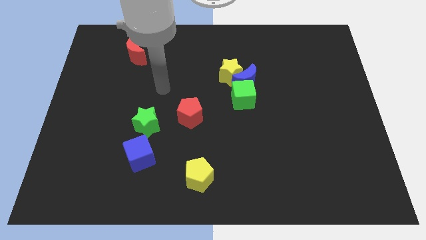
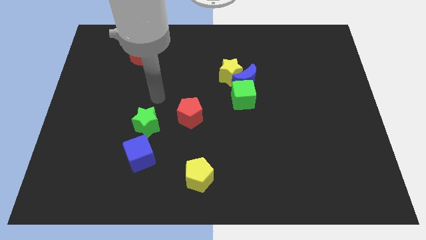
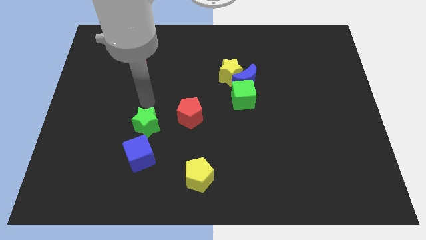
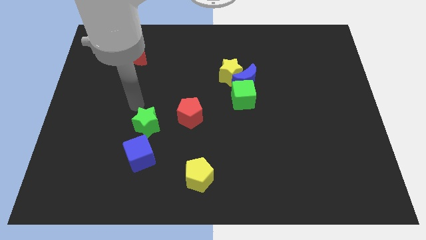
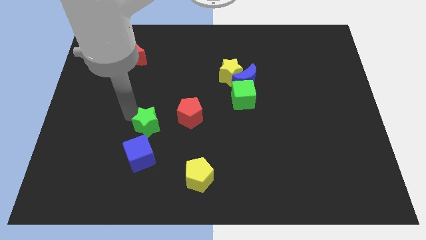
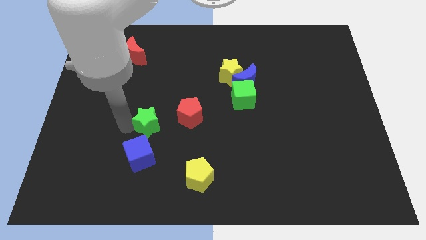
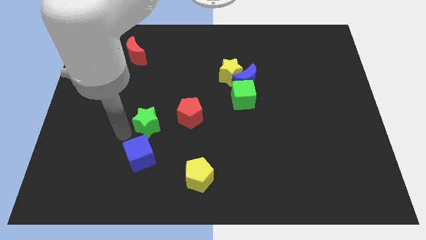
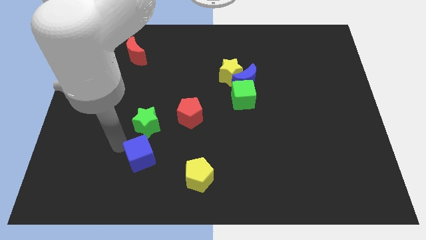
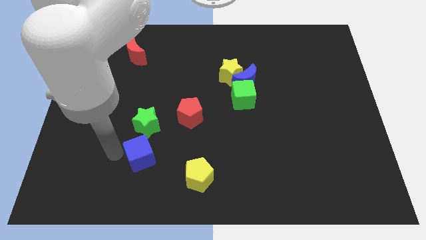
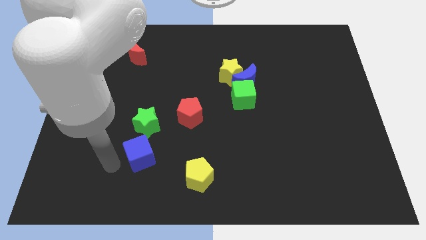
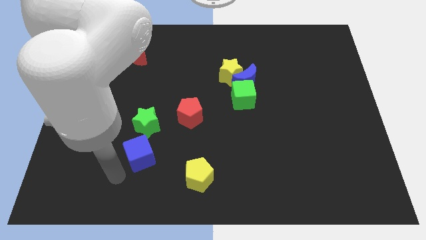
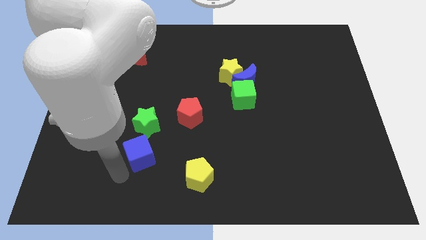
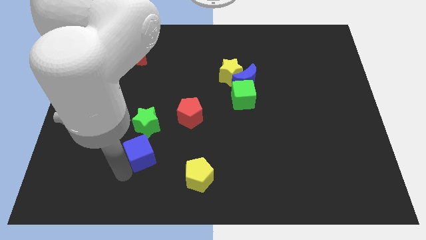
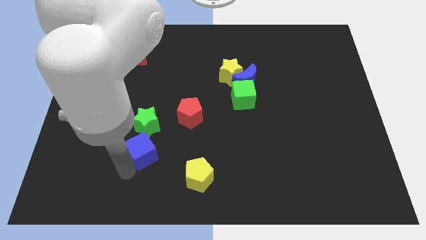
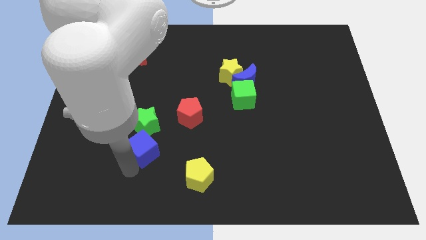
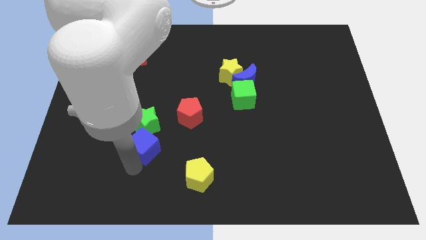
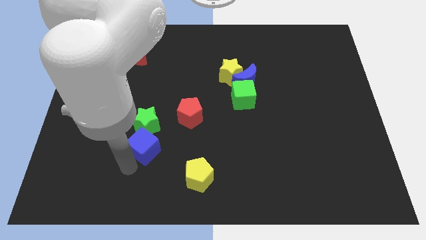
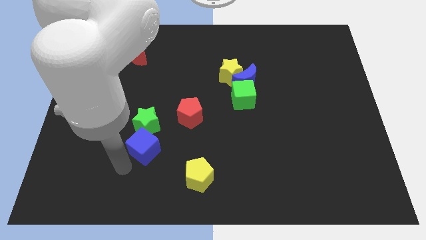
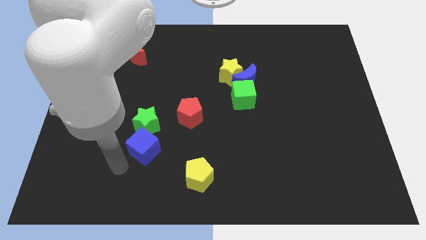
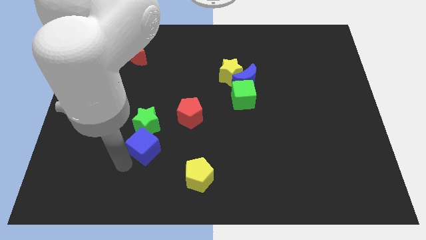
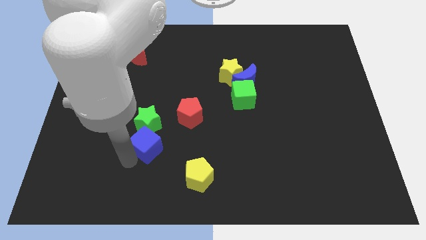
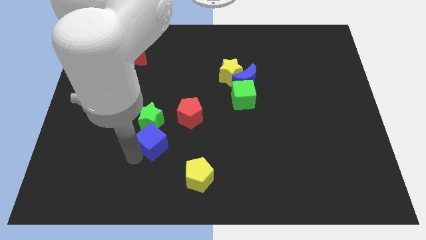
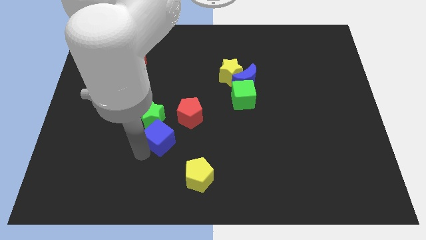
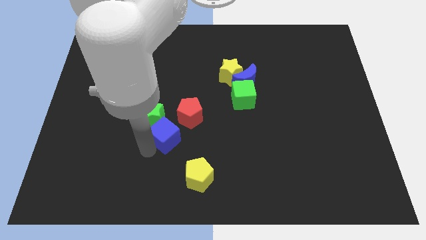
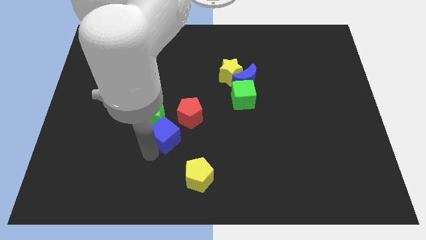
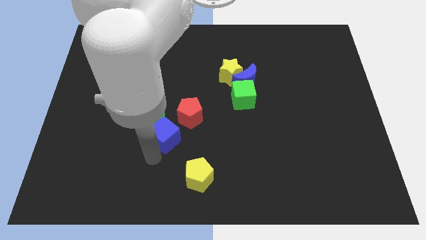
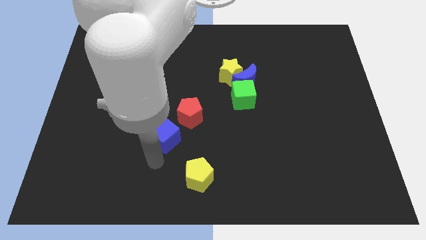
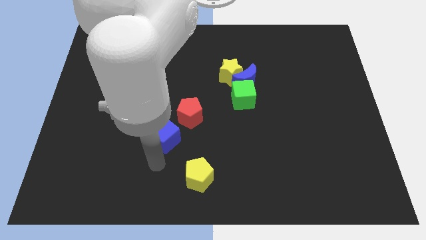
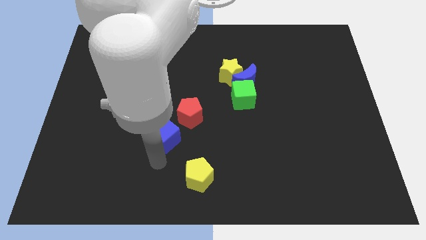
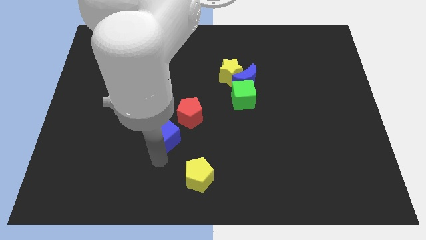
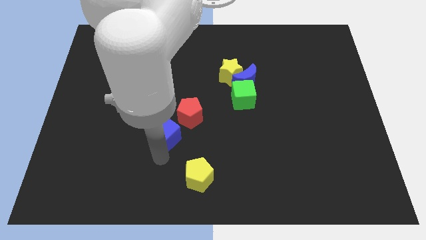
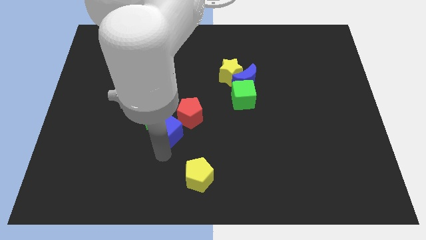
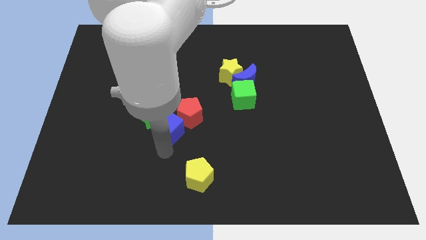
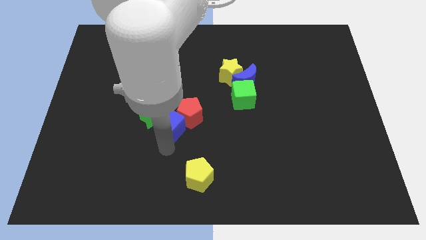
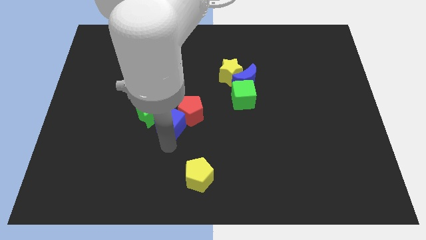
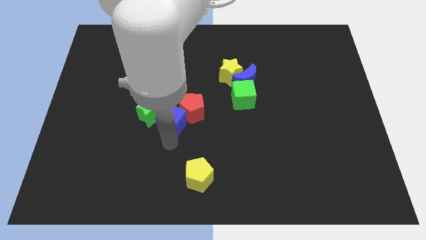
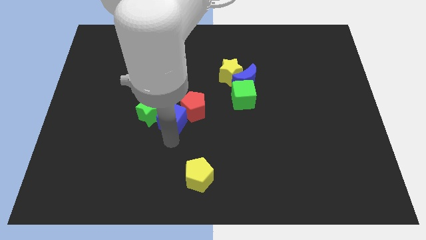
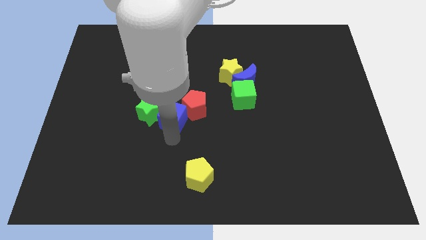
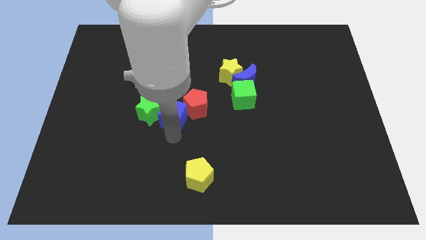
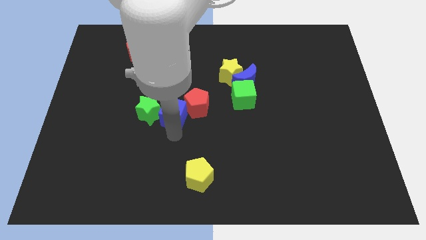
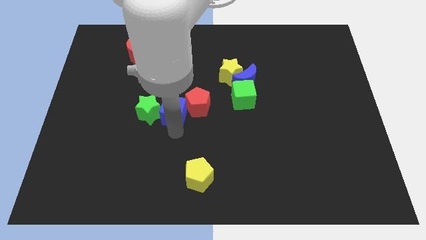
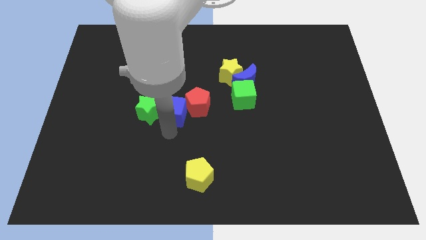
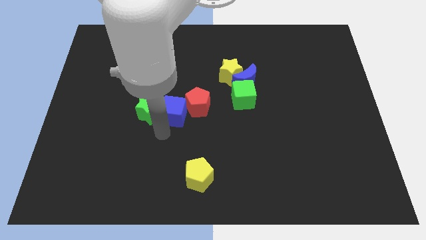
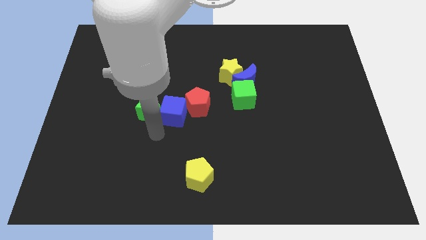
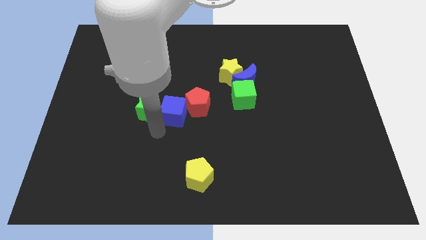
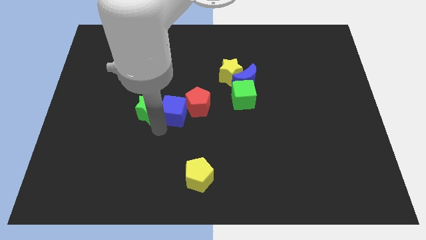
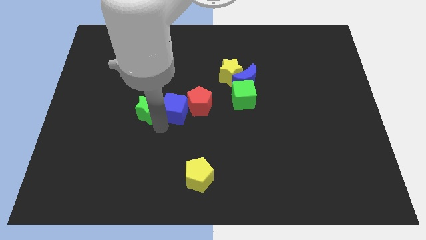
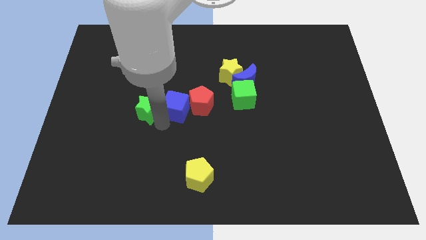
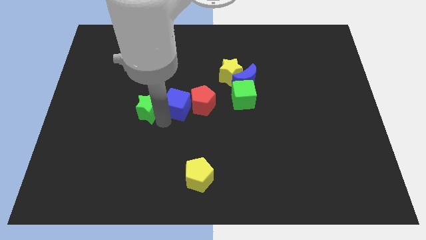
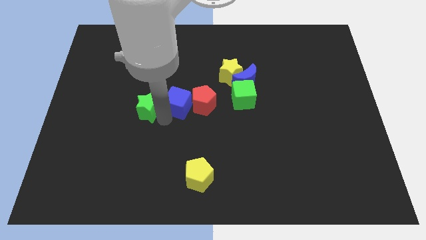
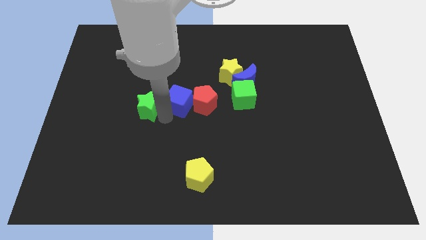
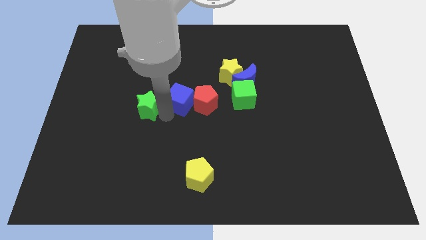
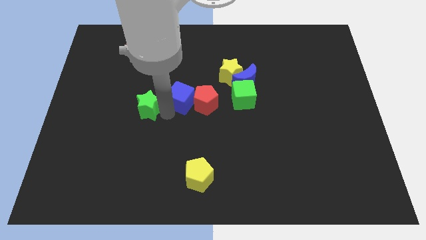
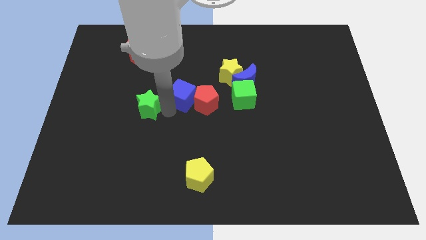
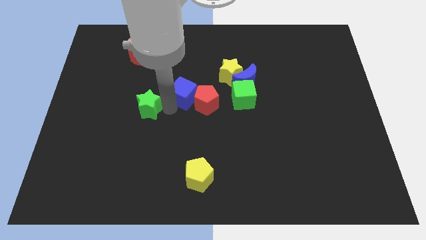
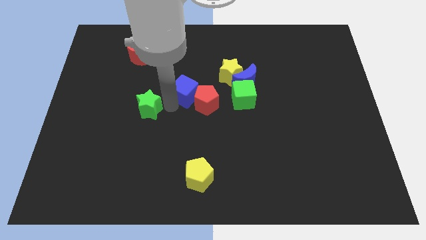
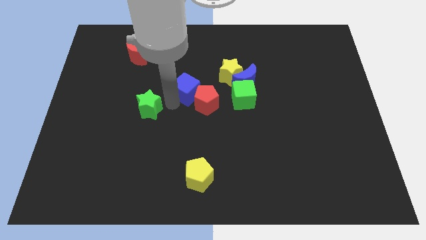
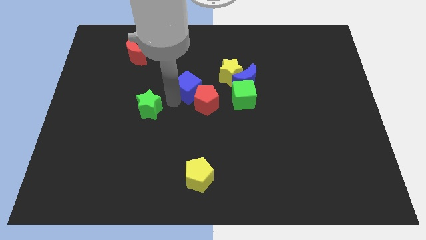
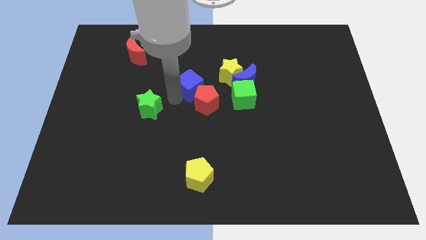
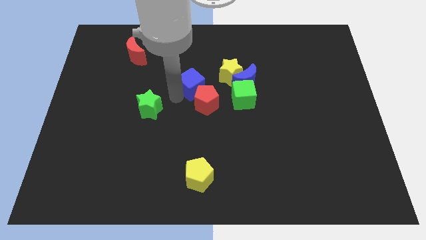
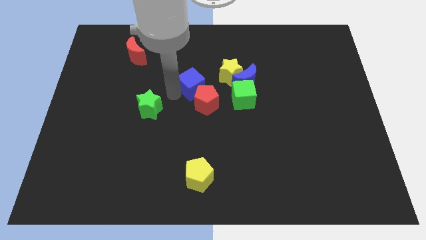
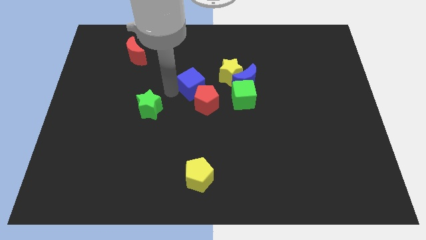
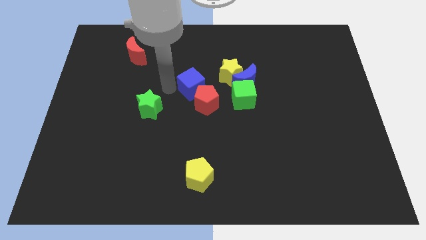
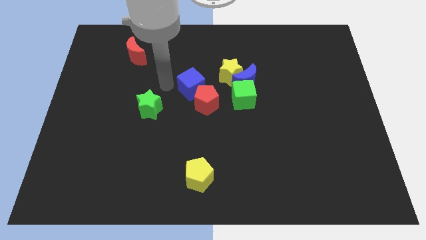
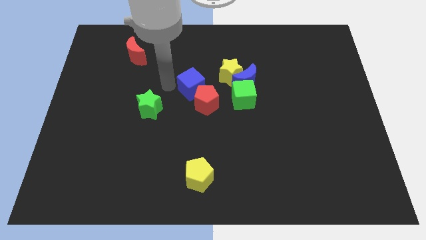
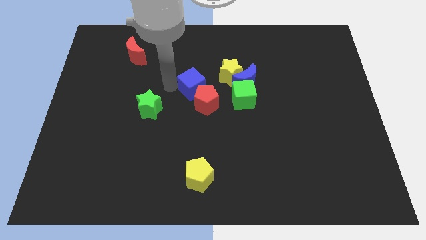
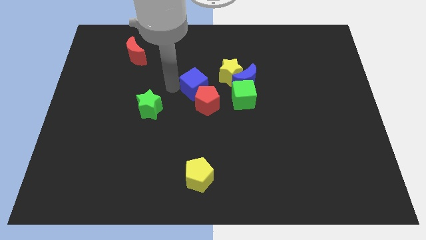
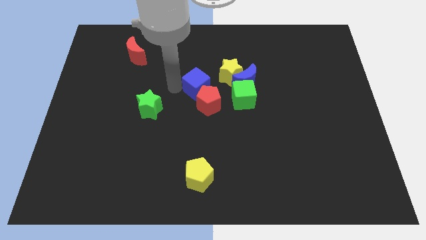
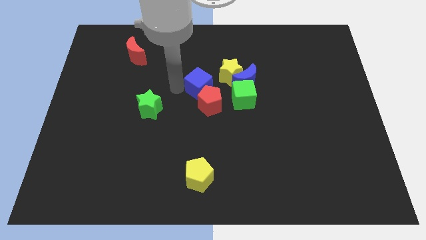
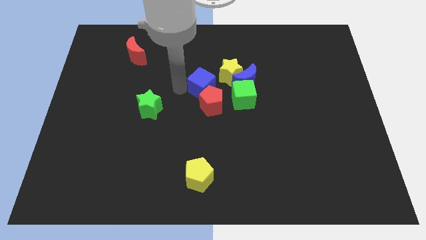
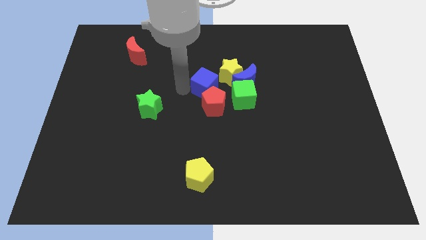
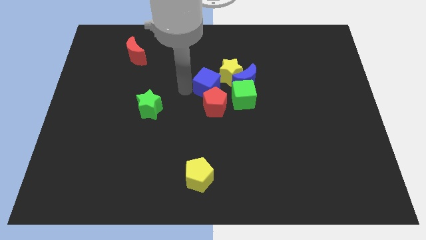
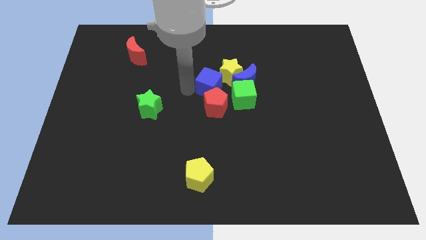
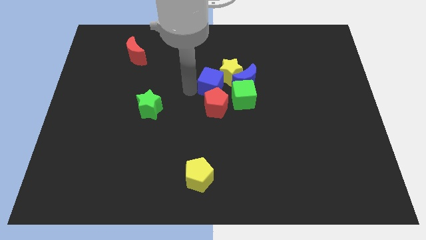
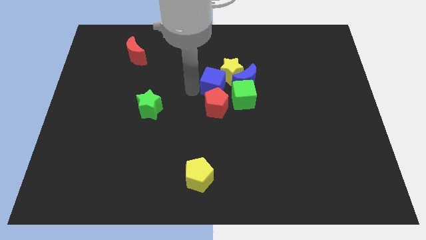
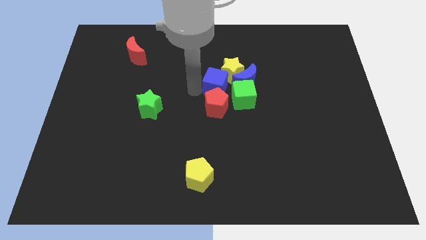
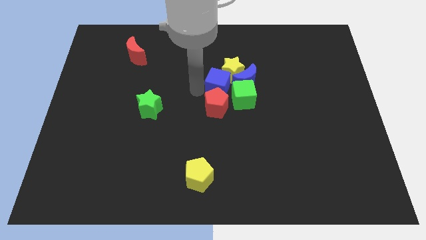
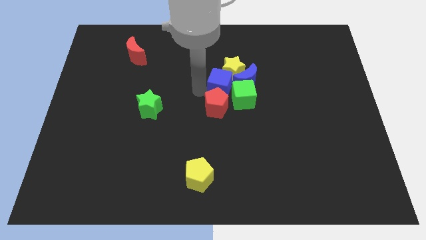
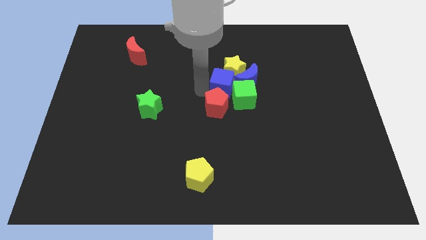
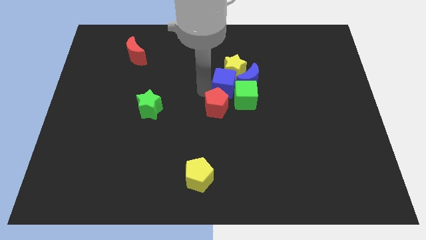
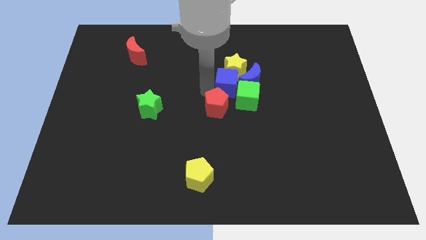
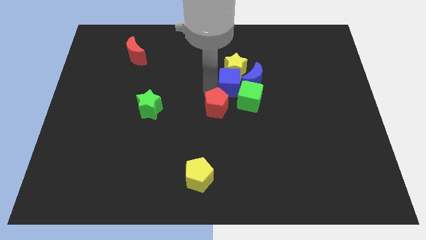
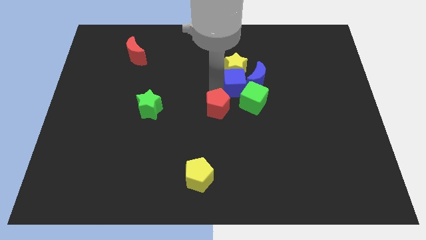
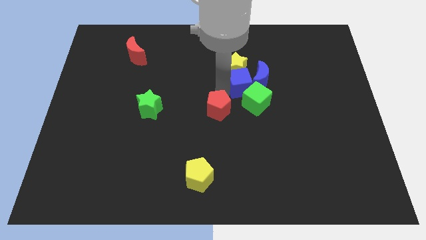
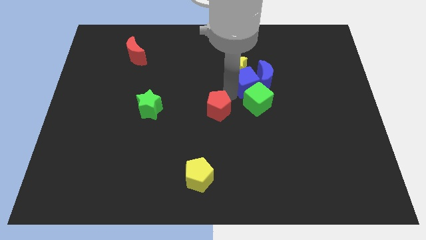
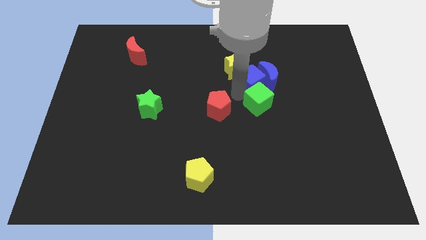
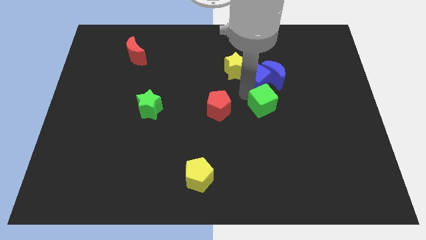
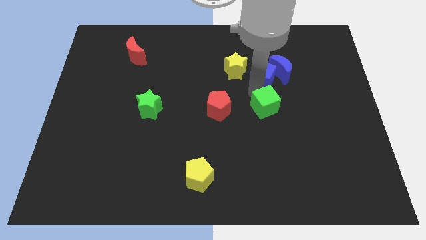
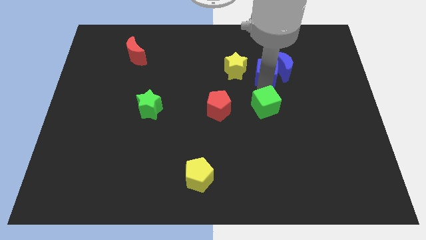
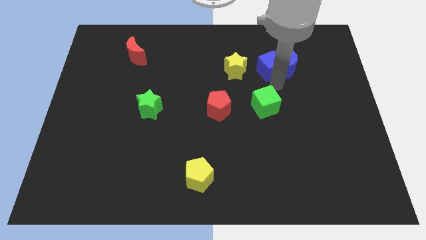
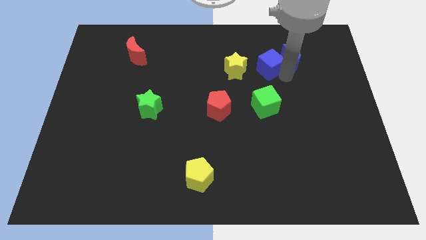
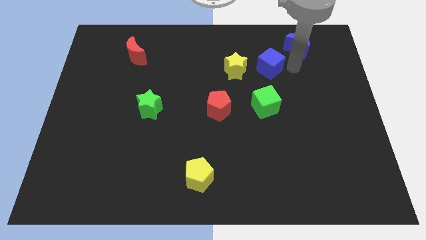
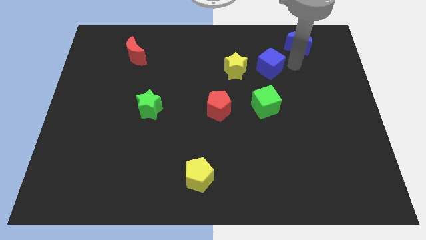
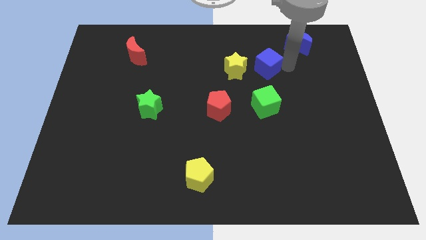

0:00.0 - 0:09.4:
put the blue cube to the top right of the yellow star
